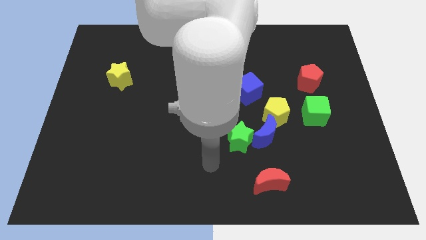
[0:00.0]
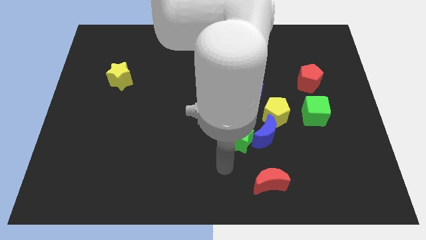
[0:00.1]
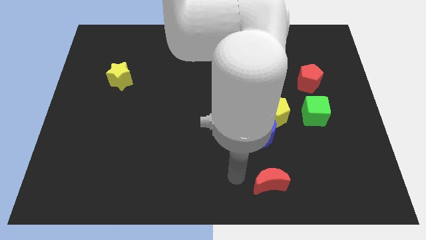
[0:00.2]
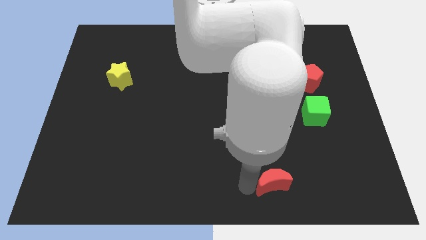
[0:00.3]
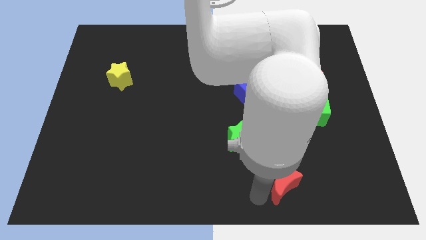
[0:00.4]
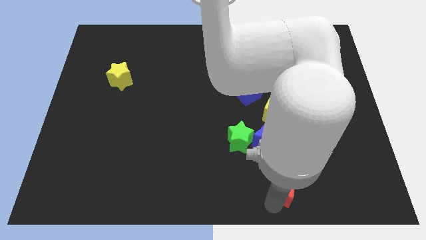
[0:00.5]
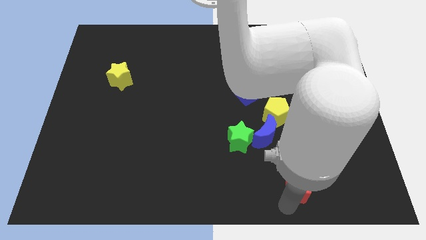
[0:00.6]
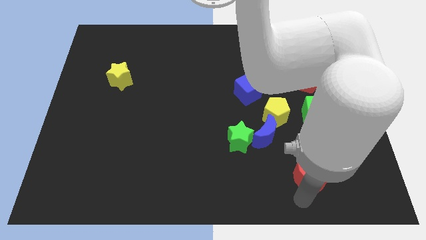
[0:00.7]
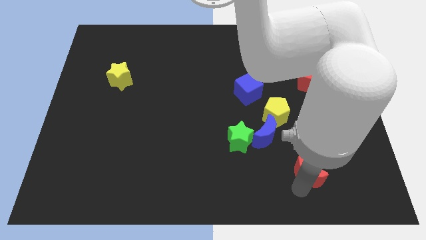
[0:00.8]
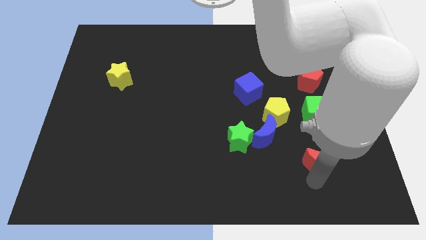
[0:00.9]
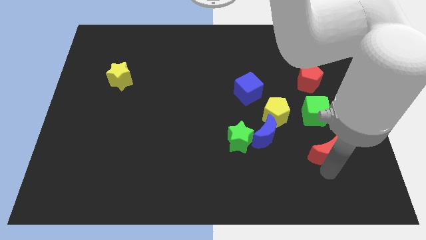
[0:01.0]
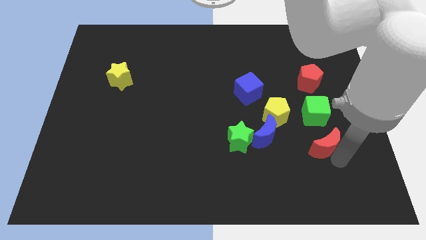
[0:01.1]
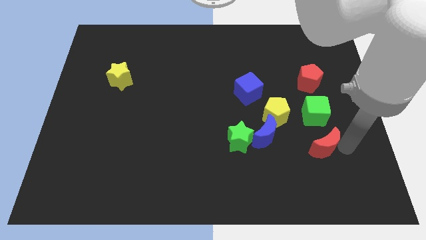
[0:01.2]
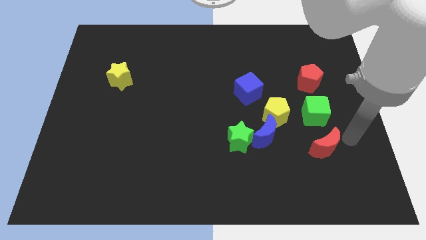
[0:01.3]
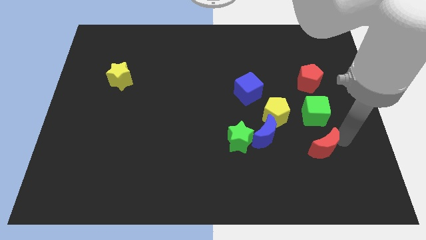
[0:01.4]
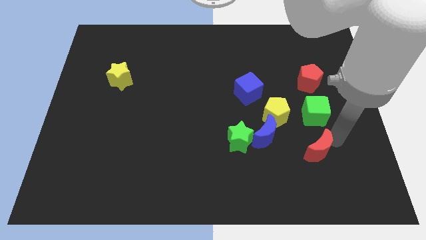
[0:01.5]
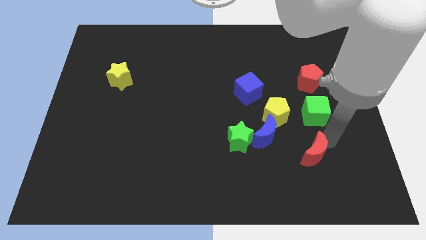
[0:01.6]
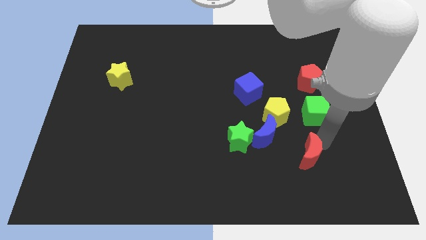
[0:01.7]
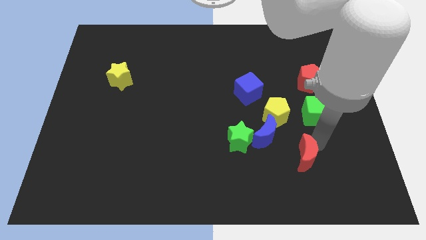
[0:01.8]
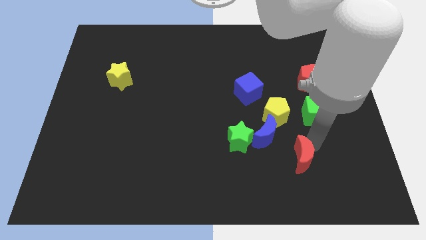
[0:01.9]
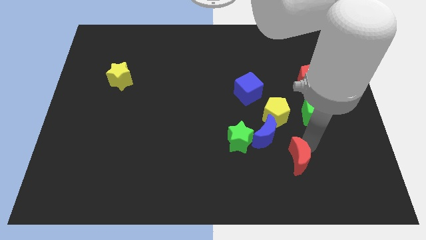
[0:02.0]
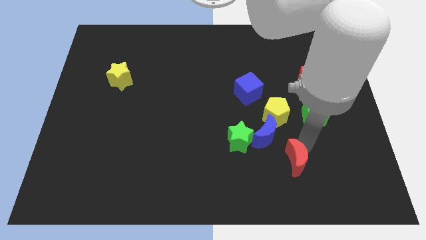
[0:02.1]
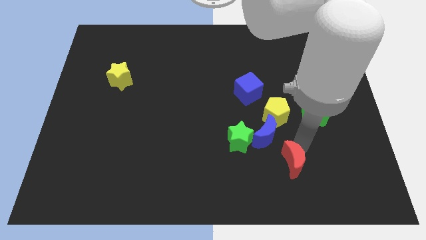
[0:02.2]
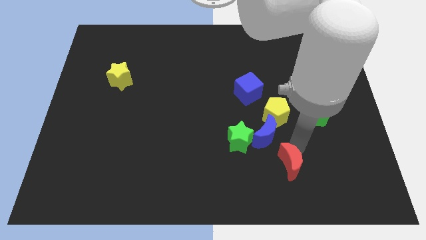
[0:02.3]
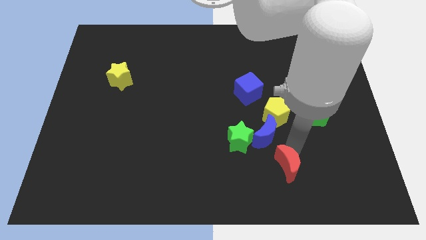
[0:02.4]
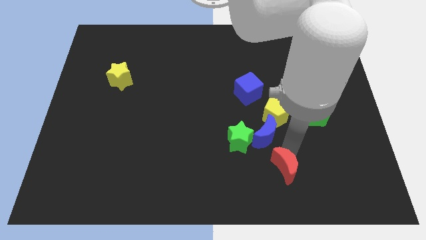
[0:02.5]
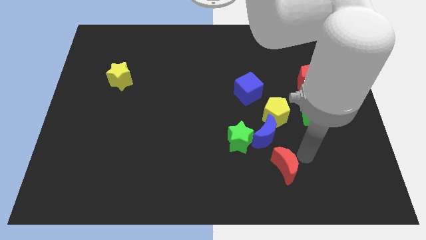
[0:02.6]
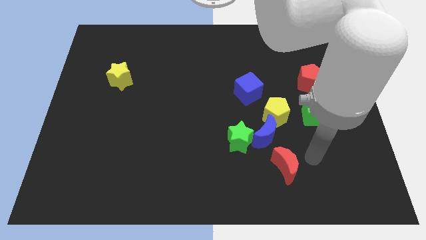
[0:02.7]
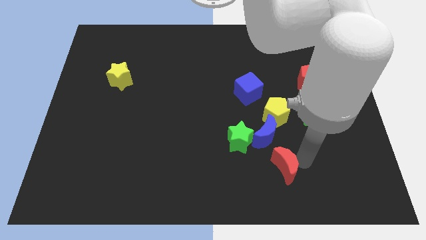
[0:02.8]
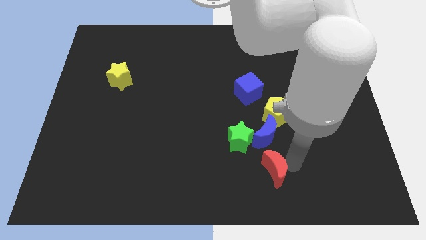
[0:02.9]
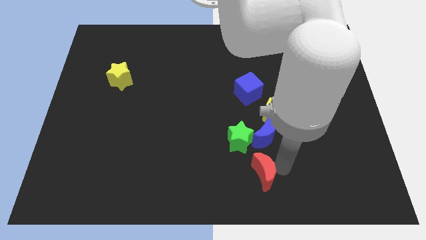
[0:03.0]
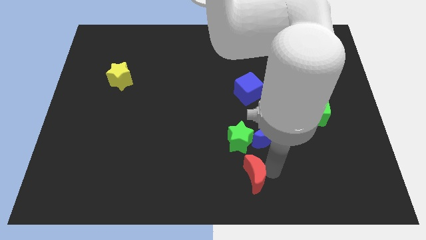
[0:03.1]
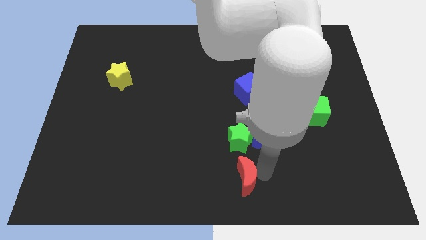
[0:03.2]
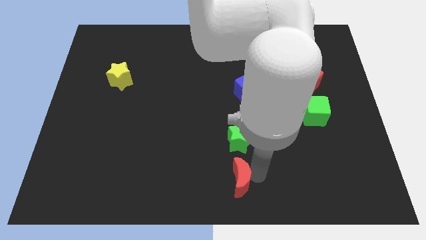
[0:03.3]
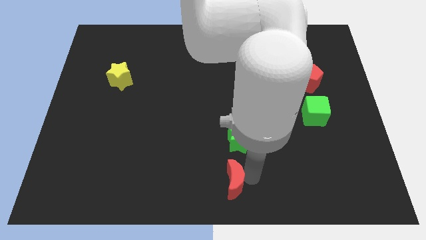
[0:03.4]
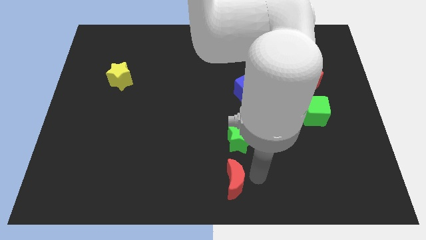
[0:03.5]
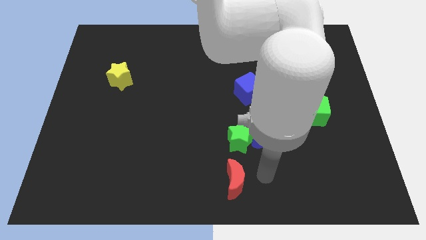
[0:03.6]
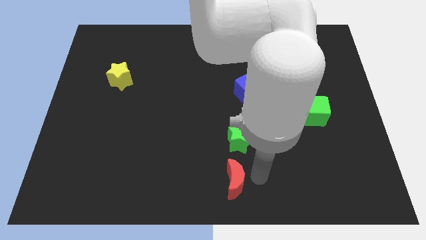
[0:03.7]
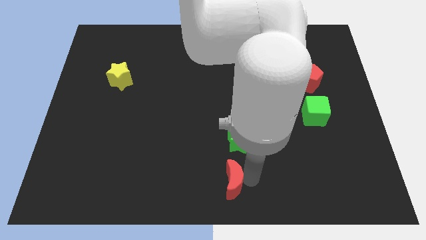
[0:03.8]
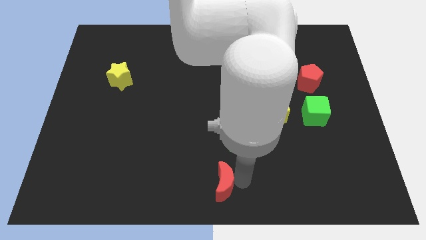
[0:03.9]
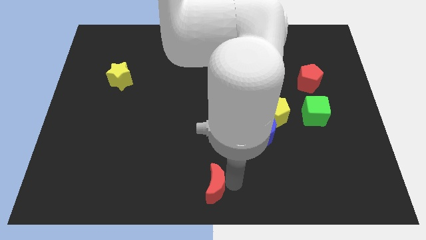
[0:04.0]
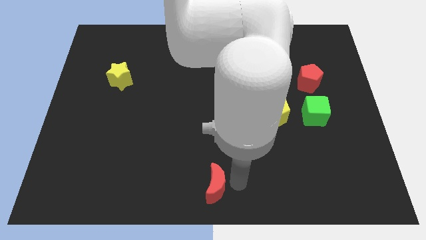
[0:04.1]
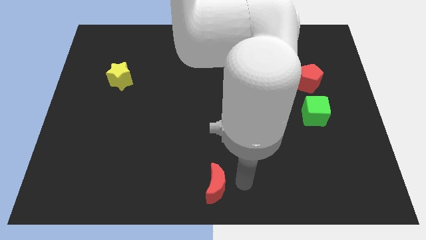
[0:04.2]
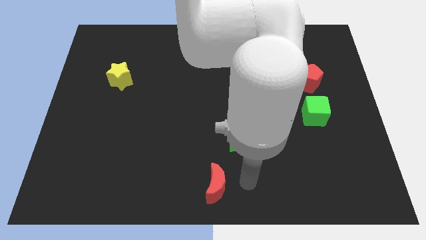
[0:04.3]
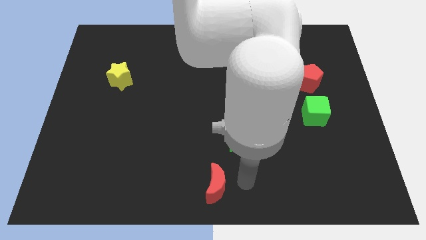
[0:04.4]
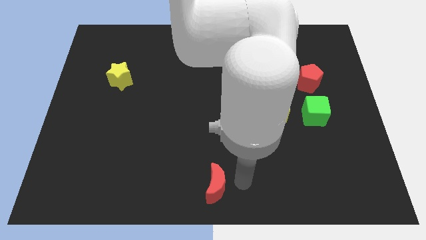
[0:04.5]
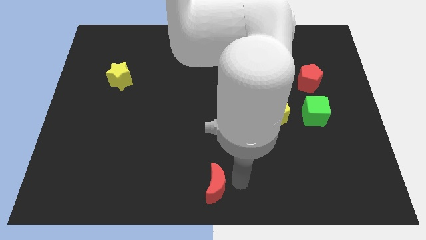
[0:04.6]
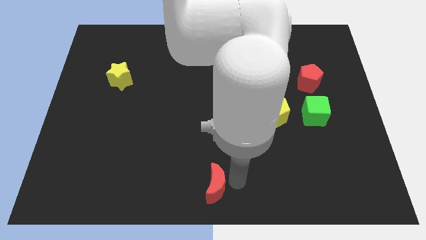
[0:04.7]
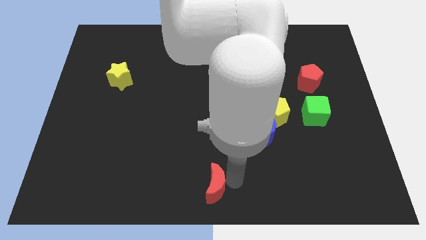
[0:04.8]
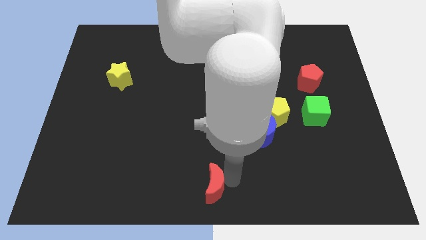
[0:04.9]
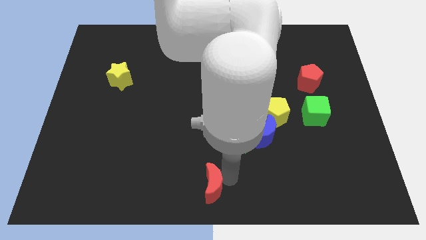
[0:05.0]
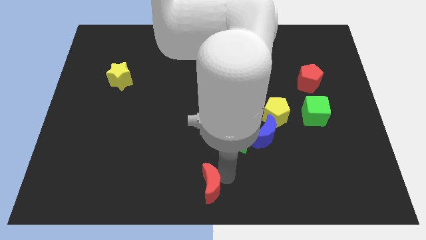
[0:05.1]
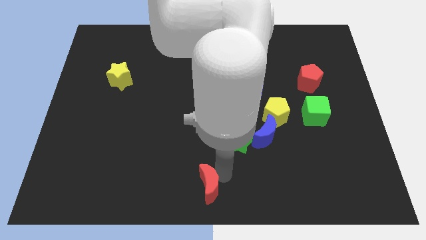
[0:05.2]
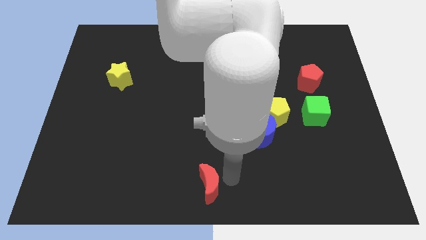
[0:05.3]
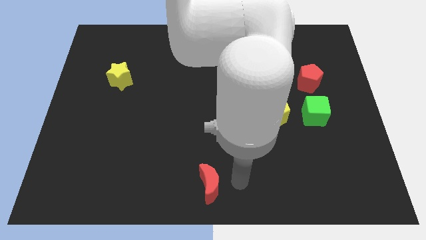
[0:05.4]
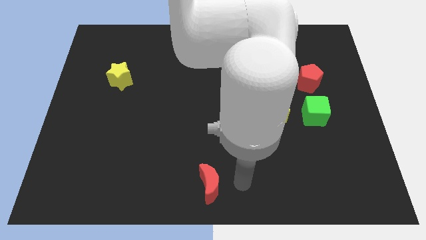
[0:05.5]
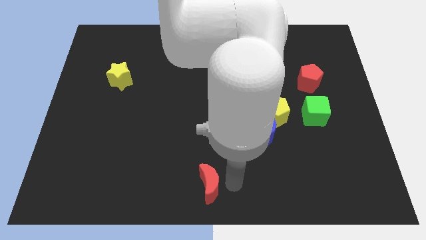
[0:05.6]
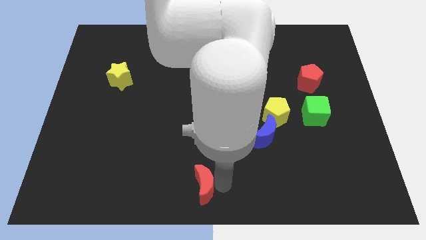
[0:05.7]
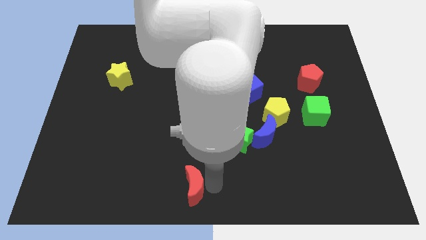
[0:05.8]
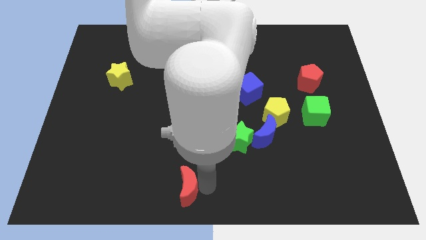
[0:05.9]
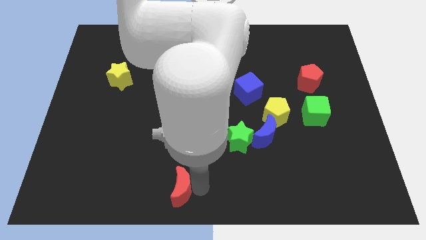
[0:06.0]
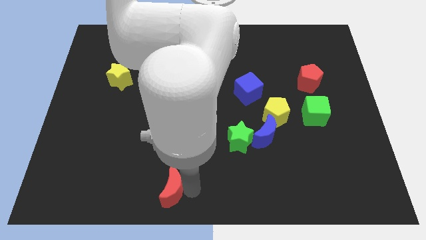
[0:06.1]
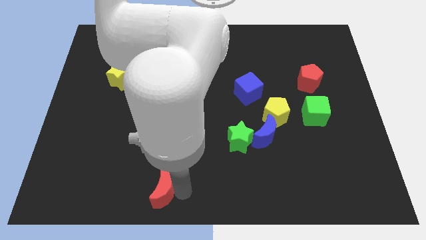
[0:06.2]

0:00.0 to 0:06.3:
push the red moon left

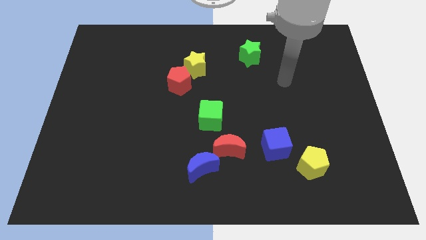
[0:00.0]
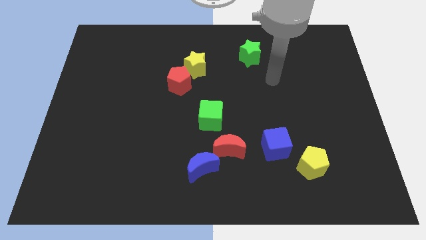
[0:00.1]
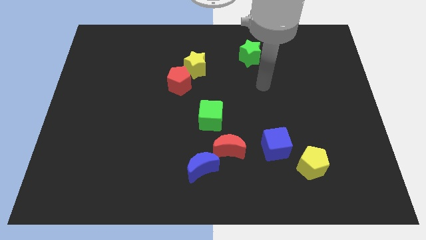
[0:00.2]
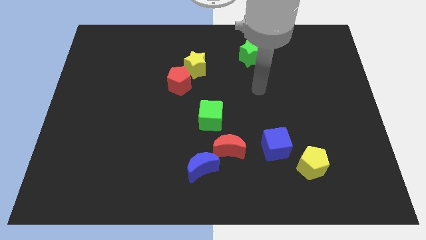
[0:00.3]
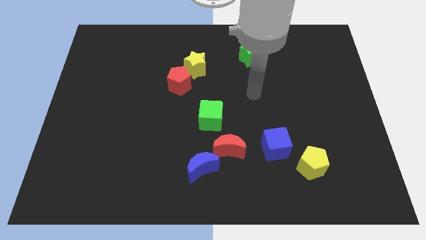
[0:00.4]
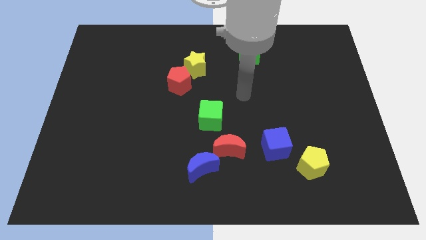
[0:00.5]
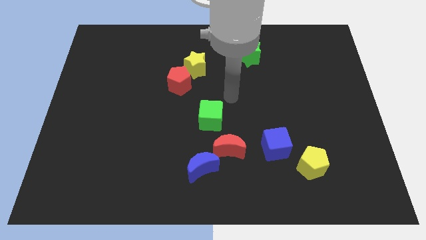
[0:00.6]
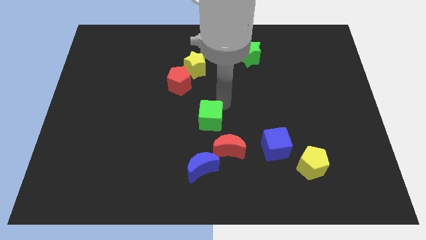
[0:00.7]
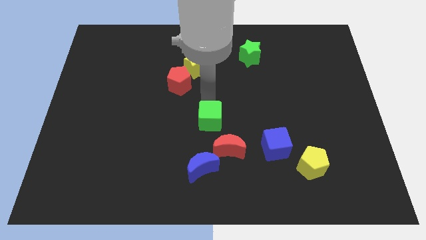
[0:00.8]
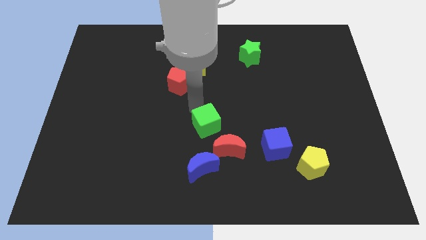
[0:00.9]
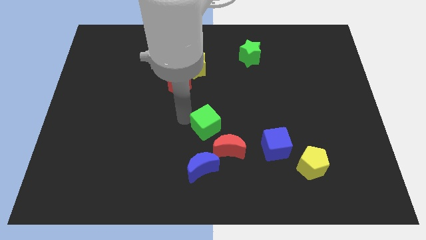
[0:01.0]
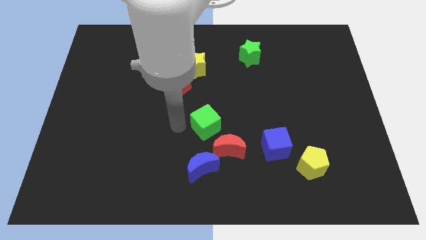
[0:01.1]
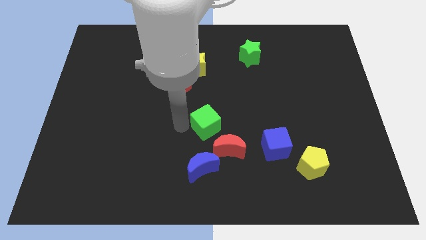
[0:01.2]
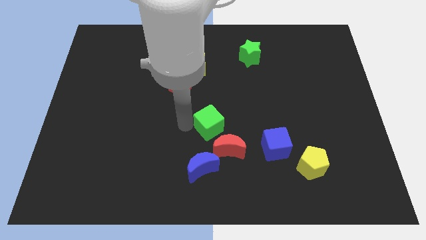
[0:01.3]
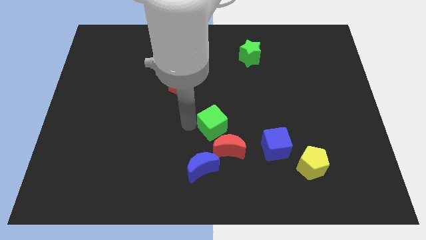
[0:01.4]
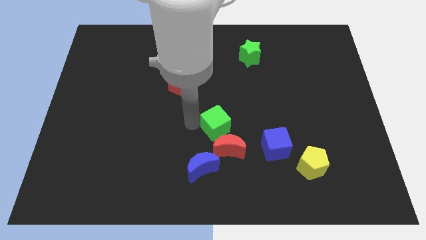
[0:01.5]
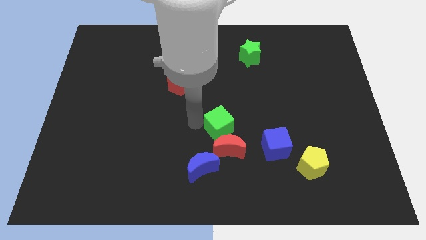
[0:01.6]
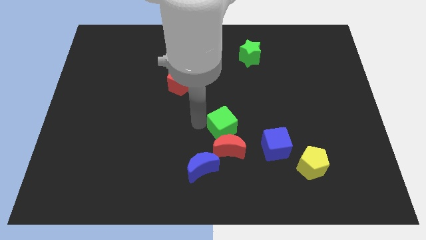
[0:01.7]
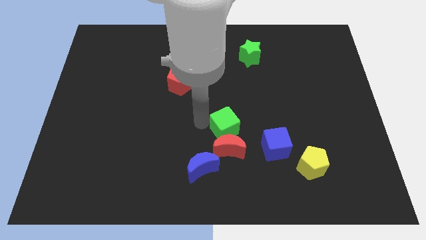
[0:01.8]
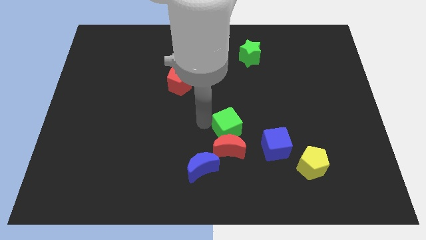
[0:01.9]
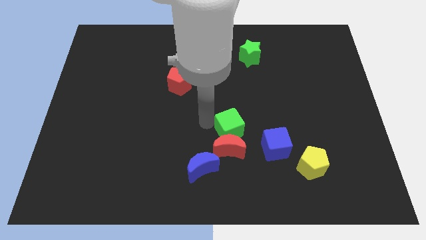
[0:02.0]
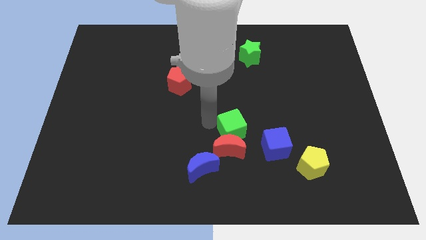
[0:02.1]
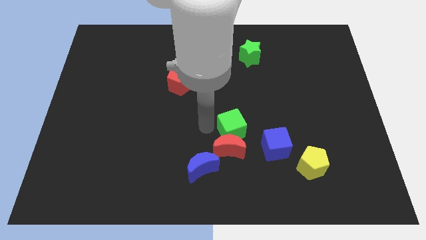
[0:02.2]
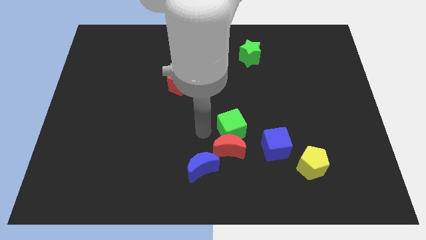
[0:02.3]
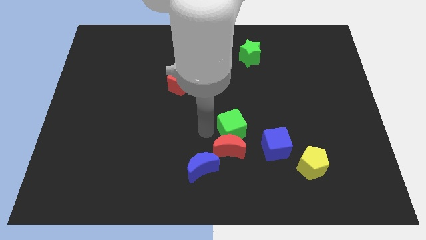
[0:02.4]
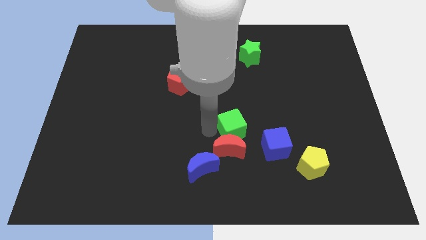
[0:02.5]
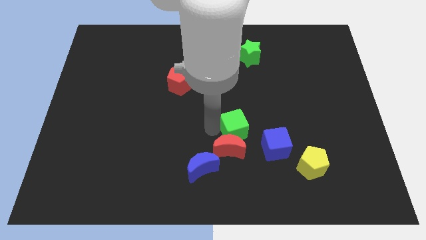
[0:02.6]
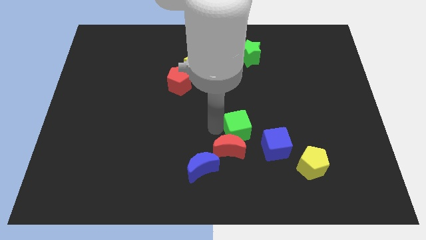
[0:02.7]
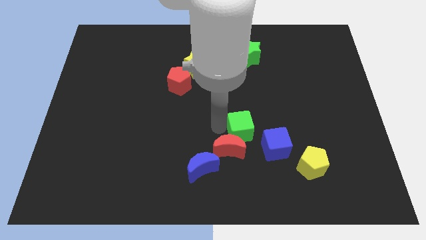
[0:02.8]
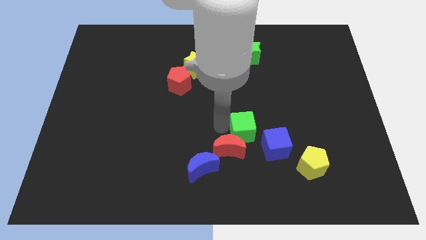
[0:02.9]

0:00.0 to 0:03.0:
slightly push the green cube to the right
